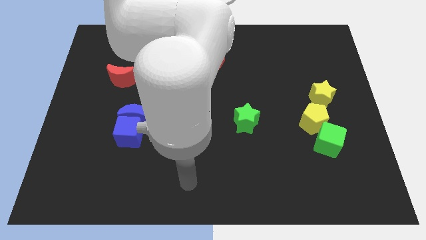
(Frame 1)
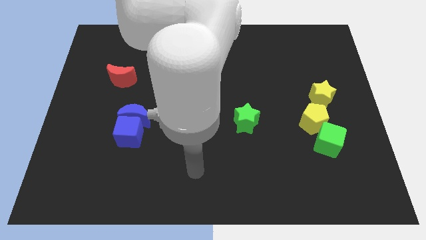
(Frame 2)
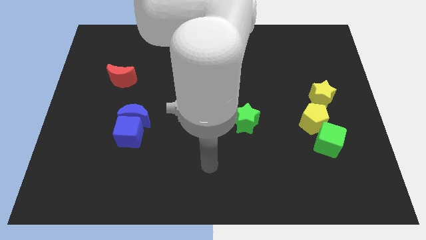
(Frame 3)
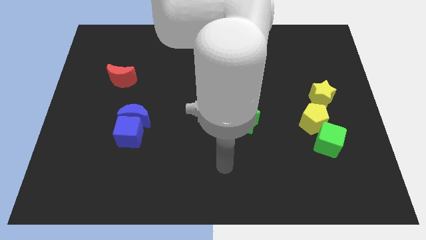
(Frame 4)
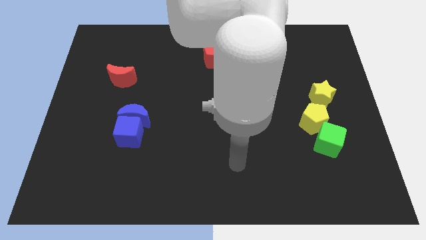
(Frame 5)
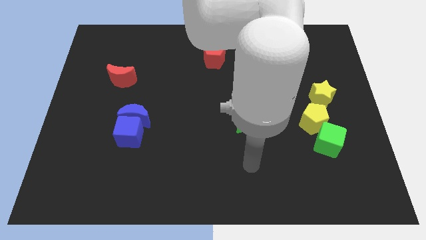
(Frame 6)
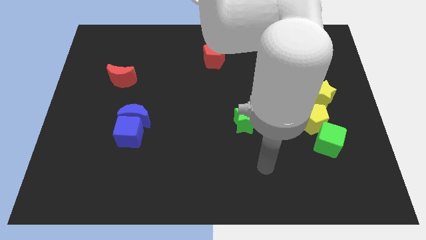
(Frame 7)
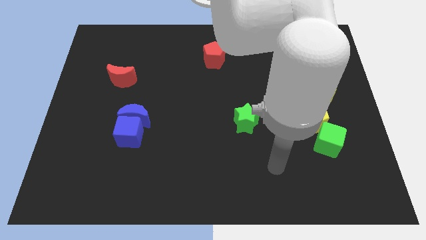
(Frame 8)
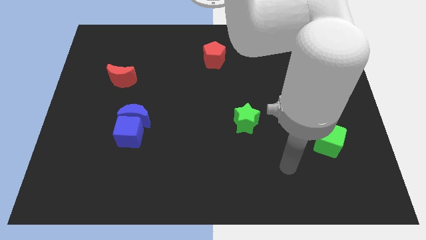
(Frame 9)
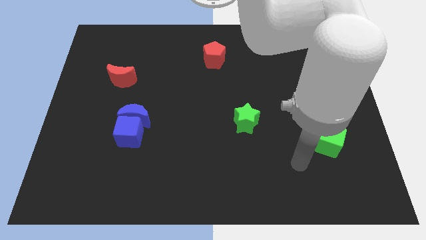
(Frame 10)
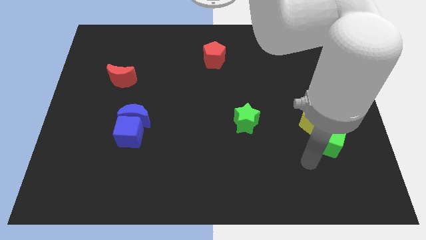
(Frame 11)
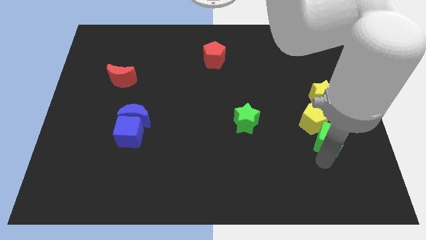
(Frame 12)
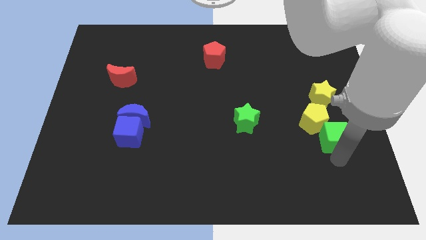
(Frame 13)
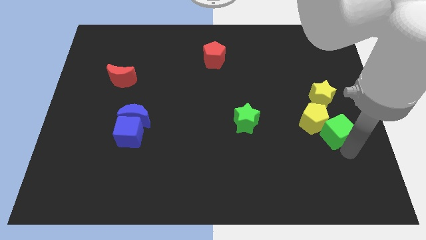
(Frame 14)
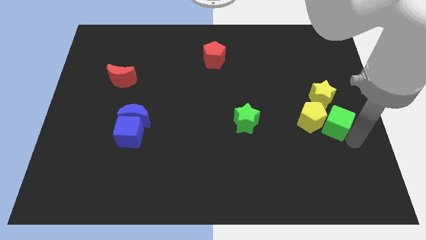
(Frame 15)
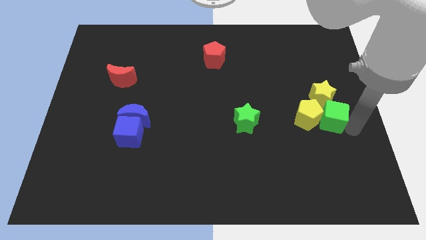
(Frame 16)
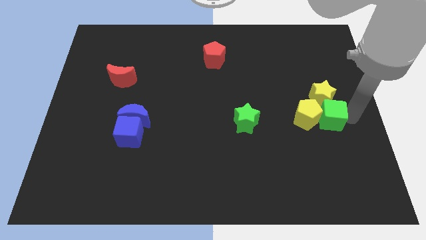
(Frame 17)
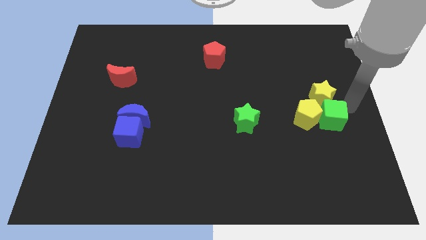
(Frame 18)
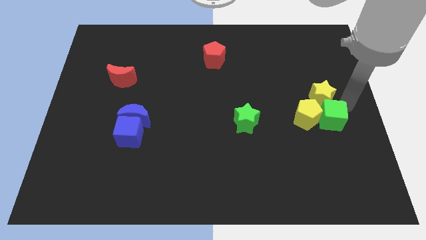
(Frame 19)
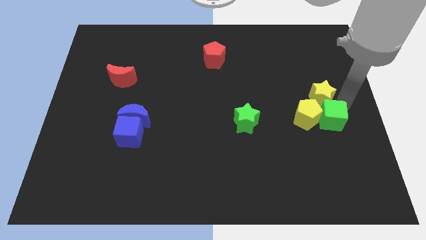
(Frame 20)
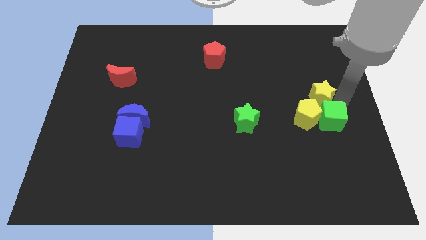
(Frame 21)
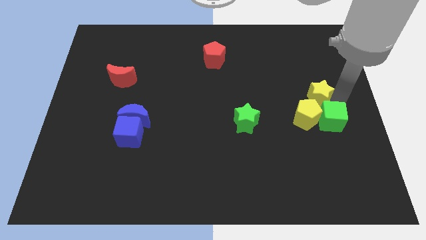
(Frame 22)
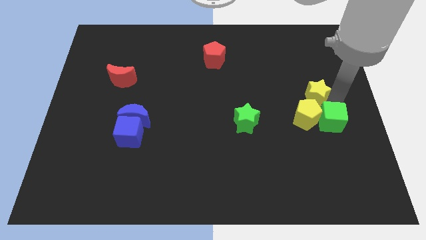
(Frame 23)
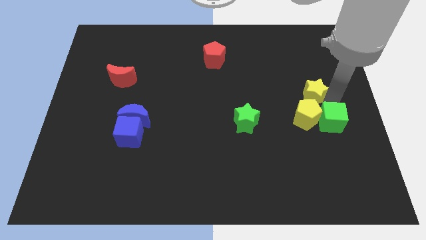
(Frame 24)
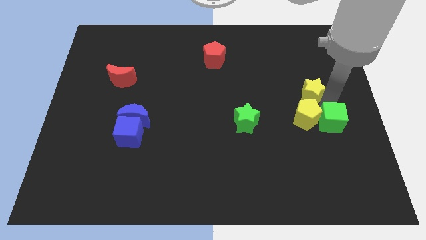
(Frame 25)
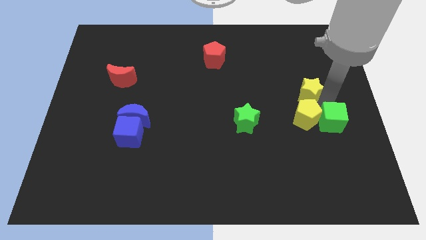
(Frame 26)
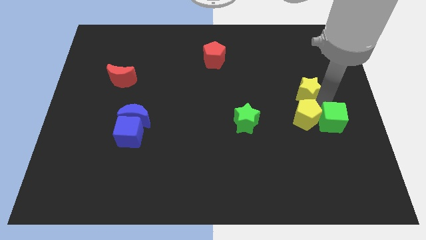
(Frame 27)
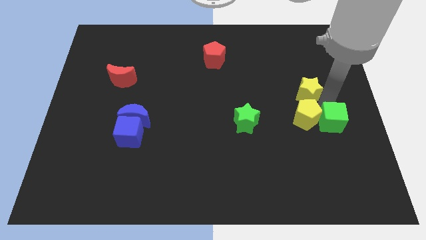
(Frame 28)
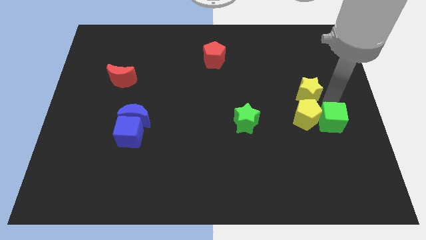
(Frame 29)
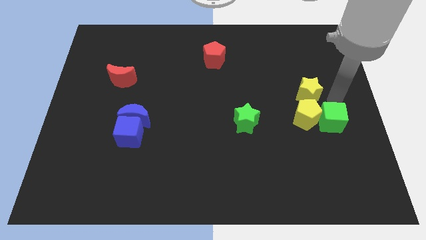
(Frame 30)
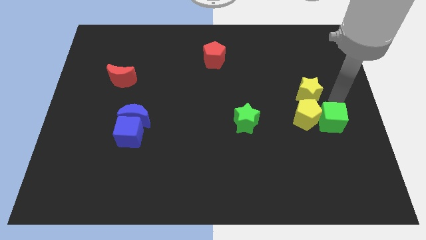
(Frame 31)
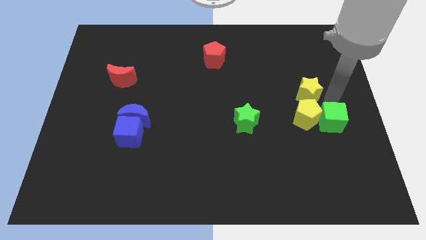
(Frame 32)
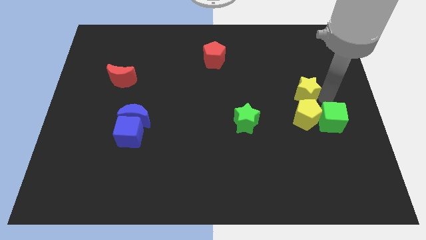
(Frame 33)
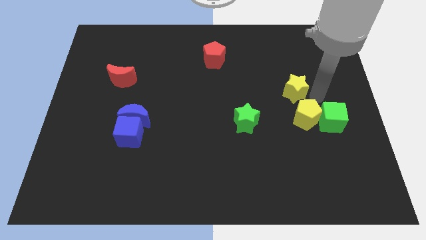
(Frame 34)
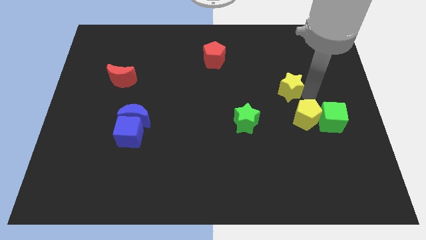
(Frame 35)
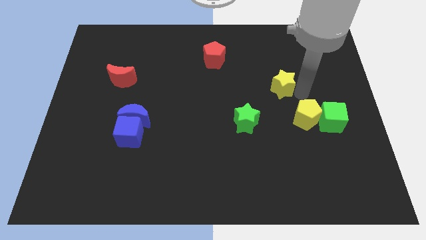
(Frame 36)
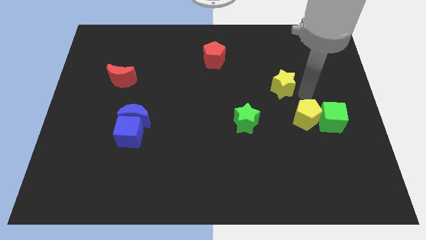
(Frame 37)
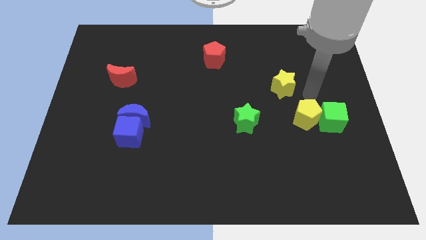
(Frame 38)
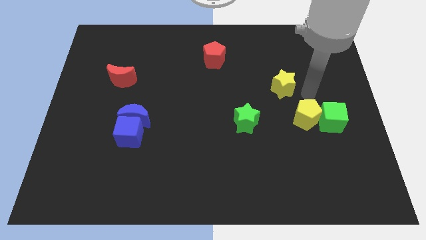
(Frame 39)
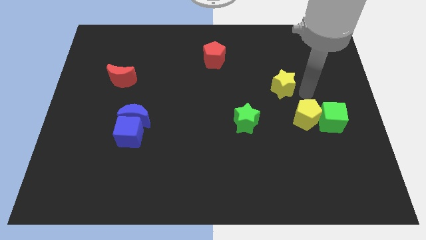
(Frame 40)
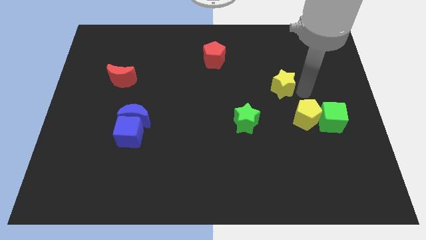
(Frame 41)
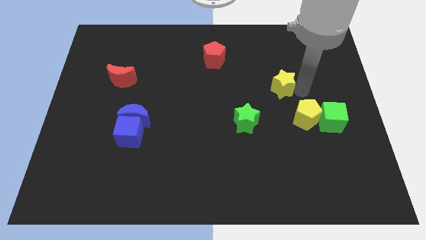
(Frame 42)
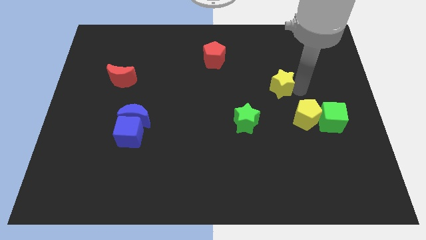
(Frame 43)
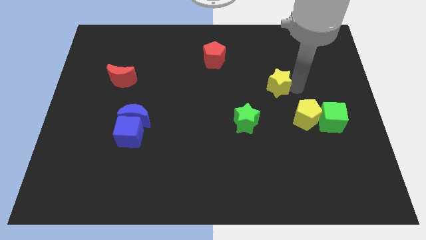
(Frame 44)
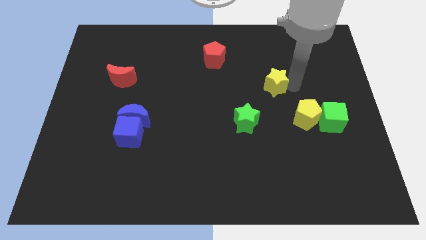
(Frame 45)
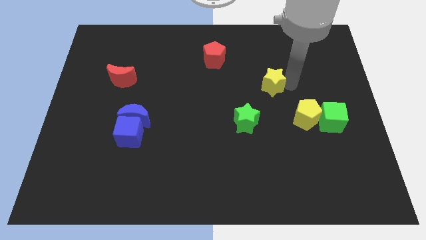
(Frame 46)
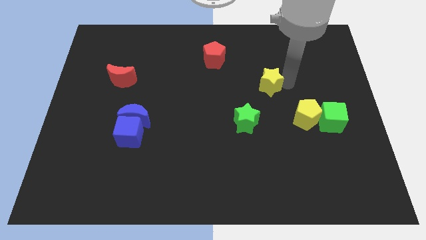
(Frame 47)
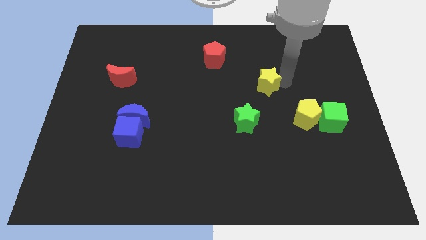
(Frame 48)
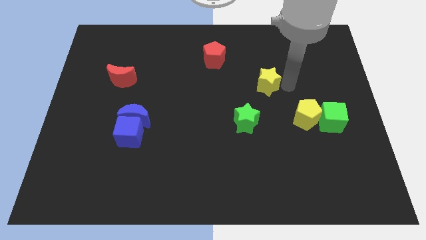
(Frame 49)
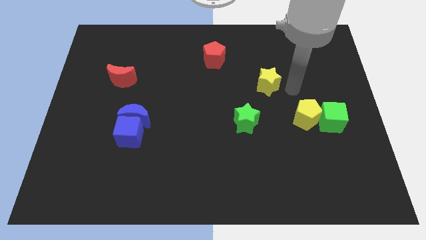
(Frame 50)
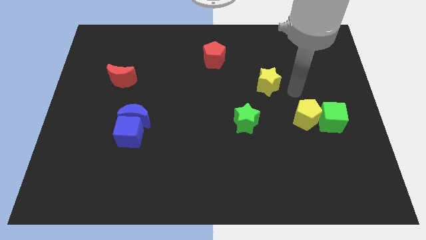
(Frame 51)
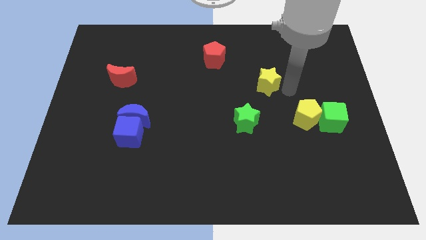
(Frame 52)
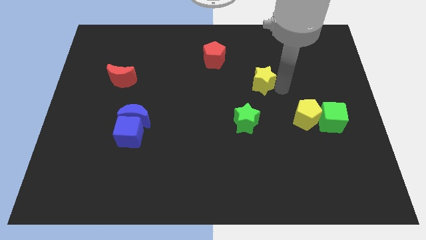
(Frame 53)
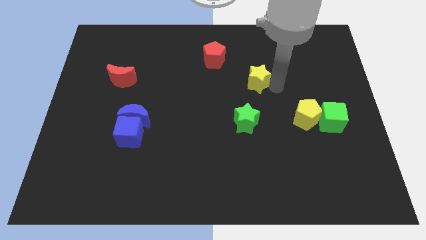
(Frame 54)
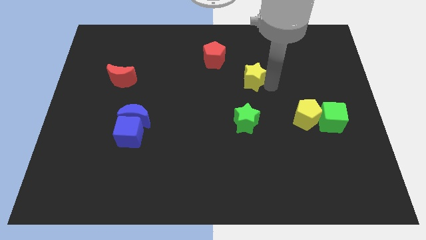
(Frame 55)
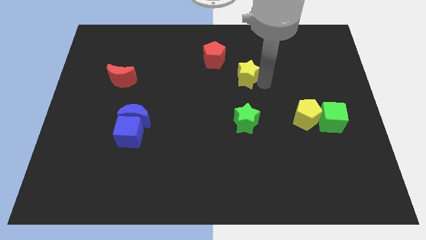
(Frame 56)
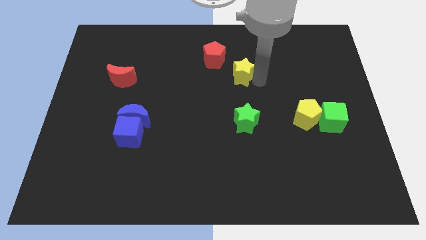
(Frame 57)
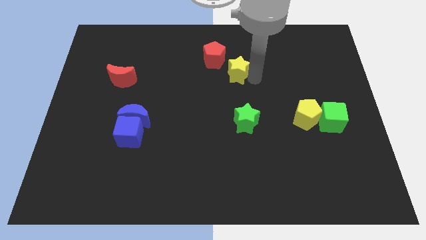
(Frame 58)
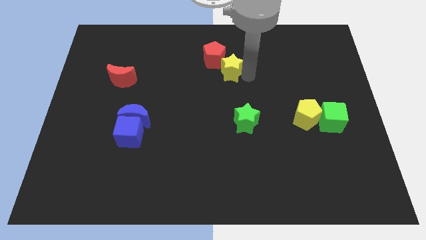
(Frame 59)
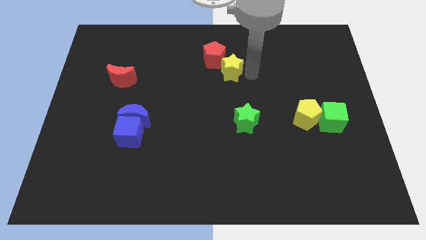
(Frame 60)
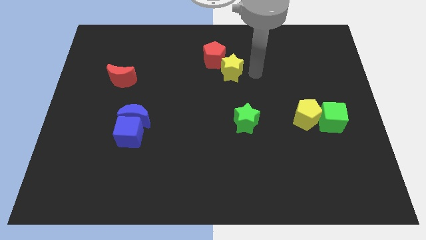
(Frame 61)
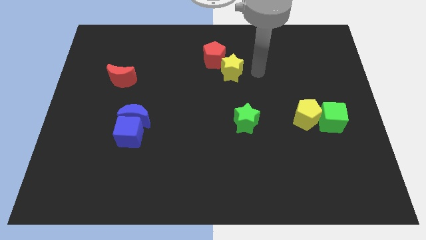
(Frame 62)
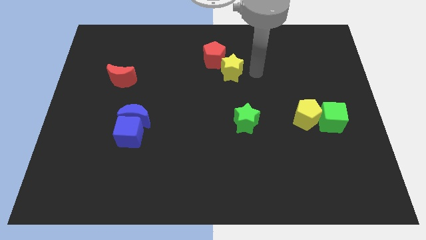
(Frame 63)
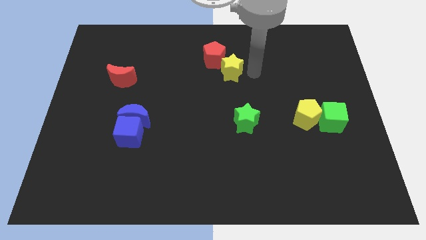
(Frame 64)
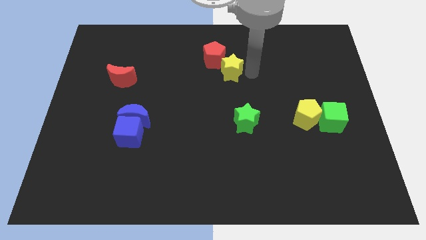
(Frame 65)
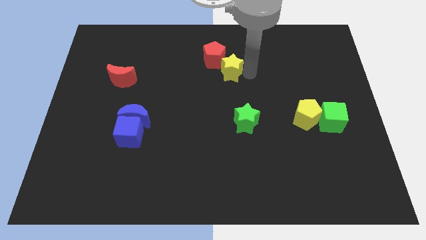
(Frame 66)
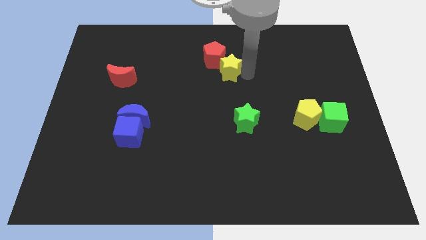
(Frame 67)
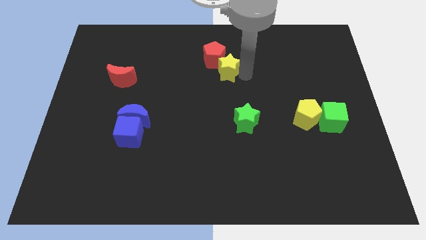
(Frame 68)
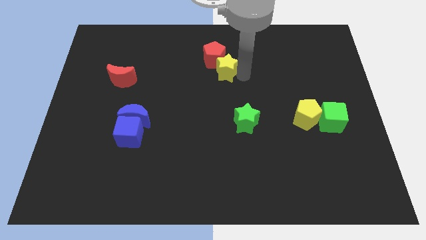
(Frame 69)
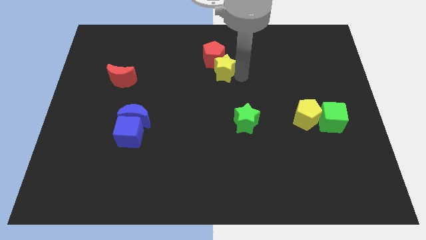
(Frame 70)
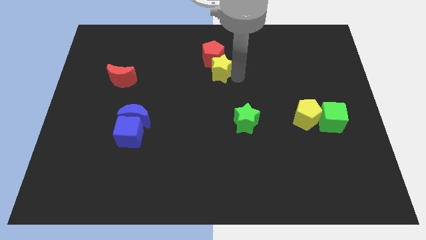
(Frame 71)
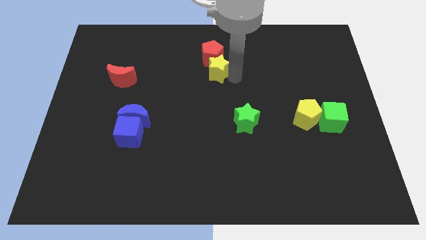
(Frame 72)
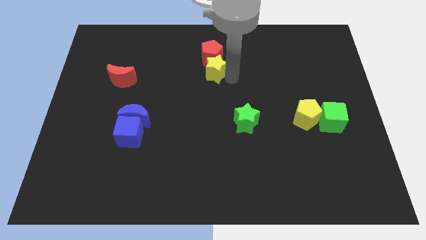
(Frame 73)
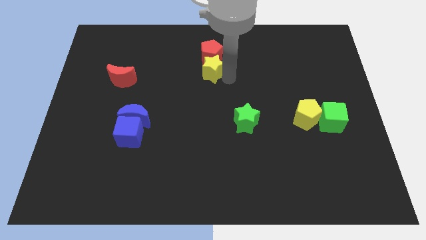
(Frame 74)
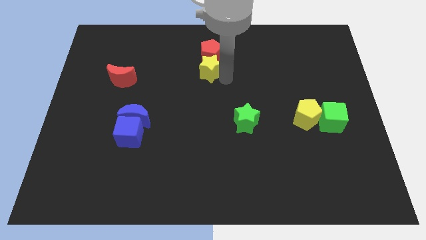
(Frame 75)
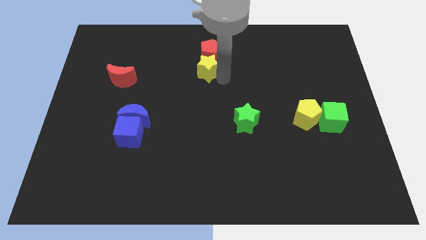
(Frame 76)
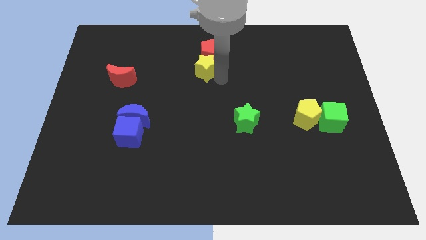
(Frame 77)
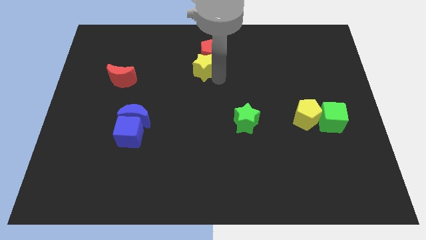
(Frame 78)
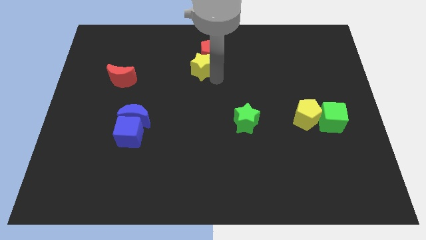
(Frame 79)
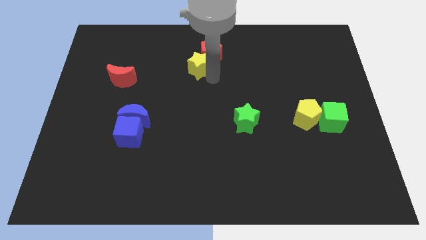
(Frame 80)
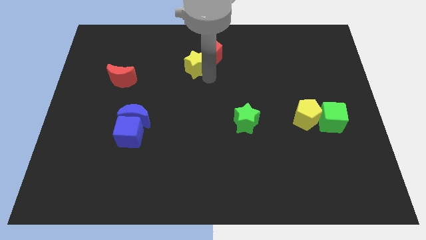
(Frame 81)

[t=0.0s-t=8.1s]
slide the yellow star just left of the red pentagon
